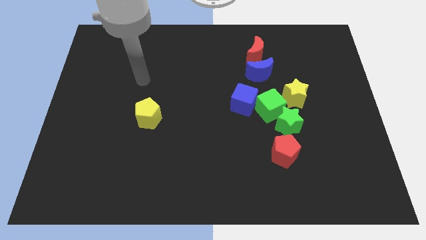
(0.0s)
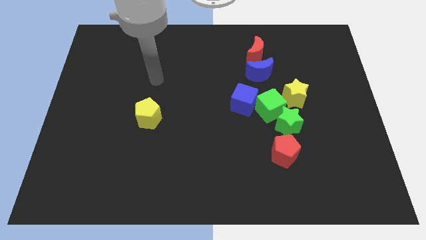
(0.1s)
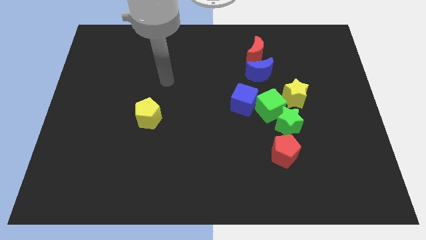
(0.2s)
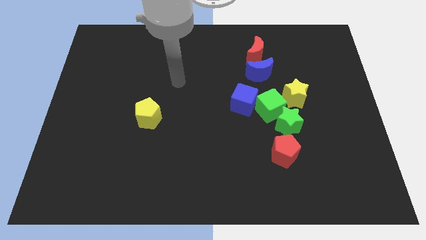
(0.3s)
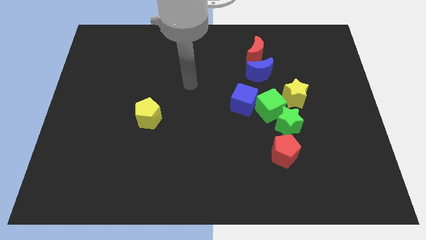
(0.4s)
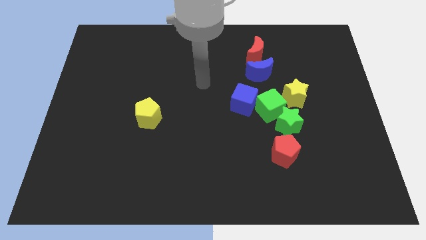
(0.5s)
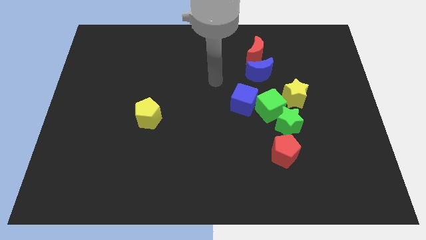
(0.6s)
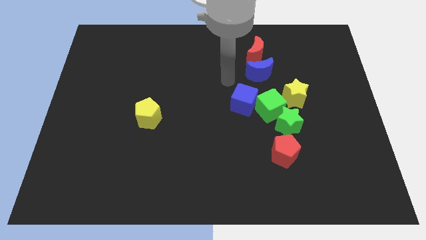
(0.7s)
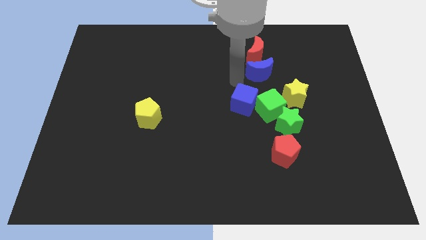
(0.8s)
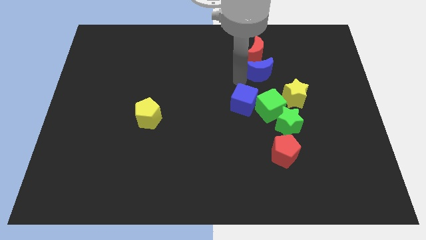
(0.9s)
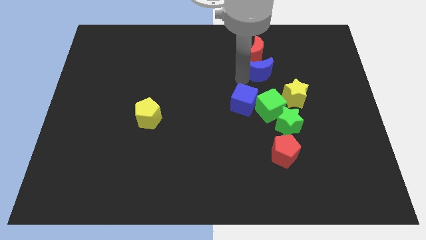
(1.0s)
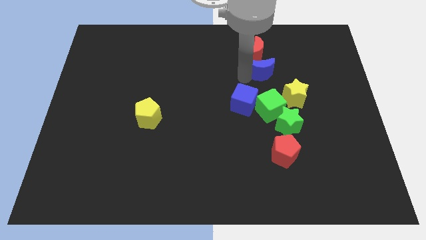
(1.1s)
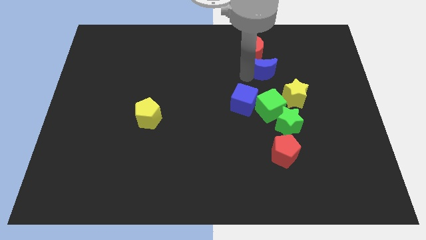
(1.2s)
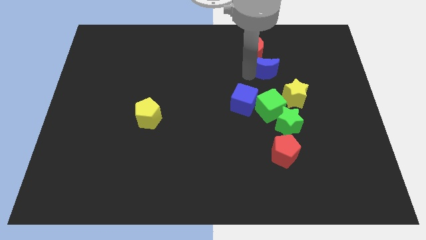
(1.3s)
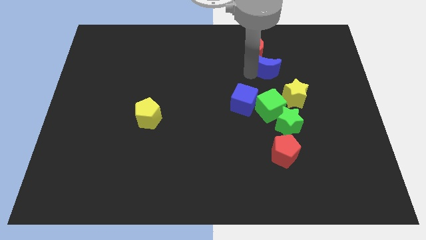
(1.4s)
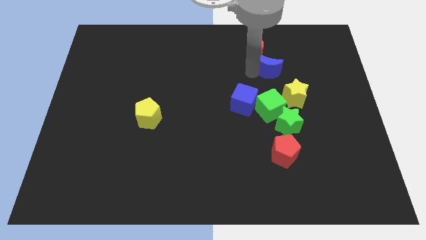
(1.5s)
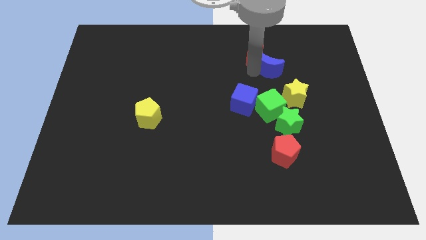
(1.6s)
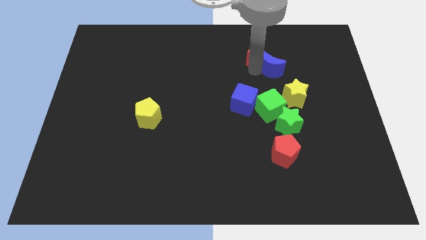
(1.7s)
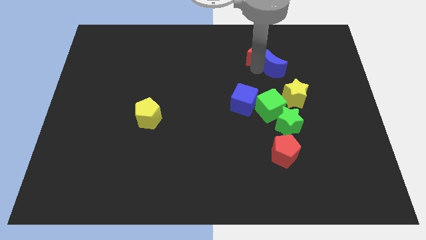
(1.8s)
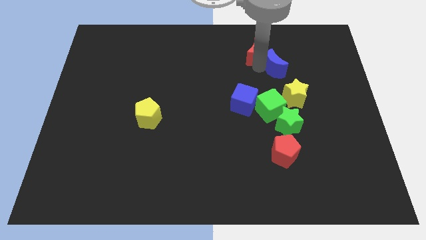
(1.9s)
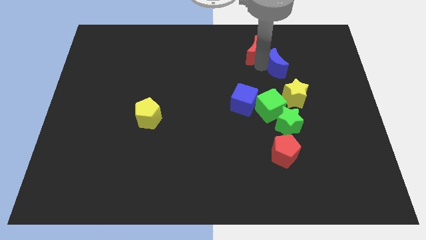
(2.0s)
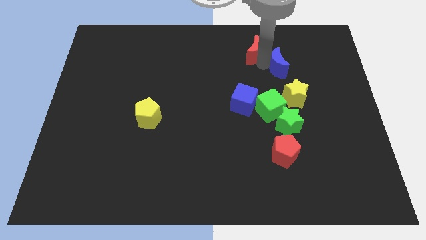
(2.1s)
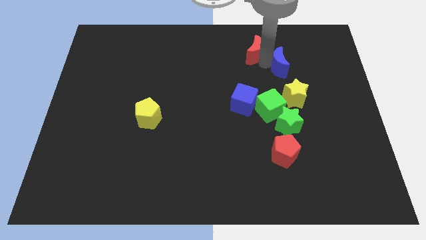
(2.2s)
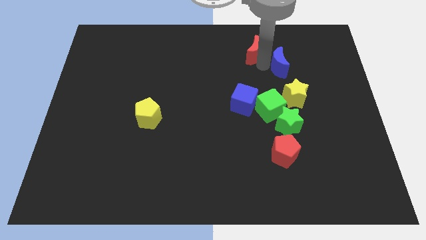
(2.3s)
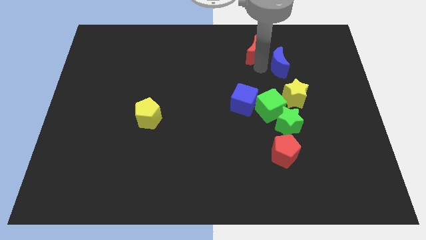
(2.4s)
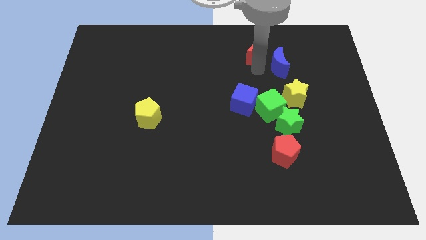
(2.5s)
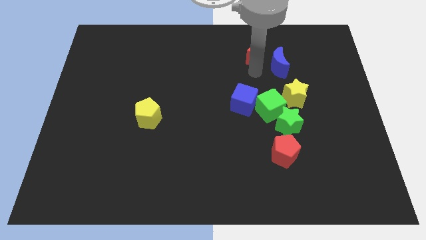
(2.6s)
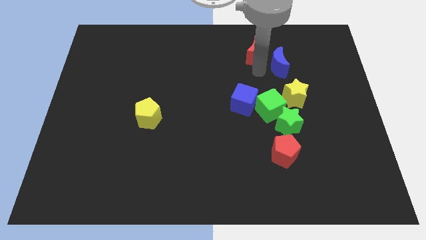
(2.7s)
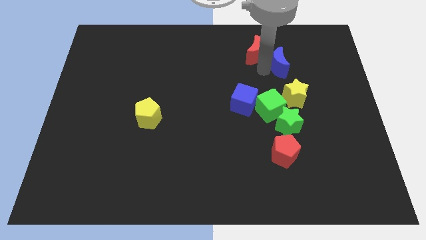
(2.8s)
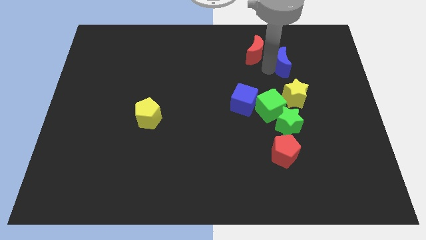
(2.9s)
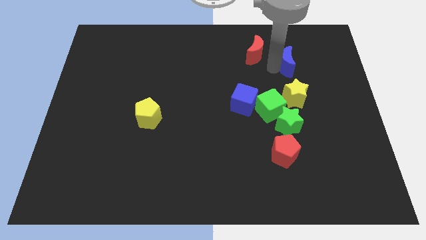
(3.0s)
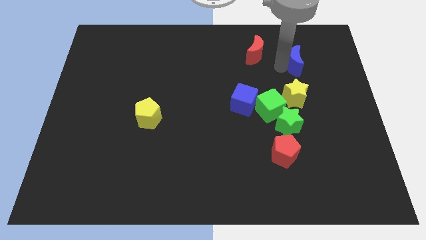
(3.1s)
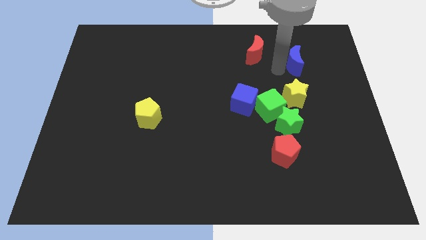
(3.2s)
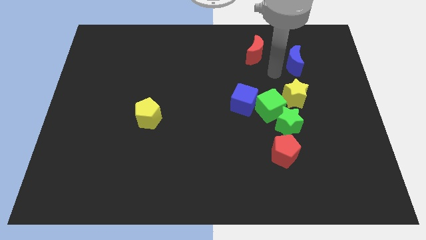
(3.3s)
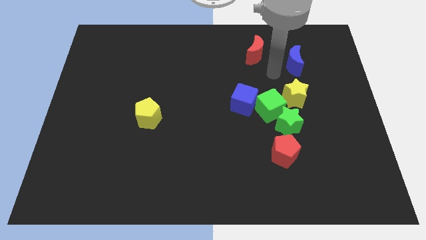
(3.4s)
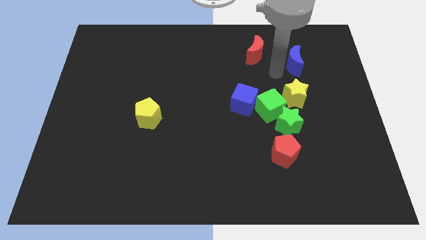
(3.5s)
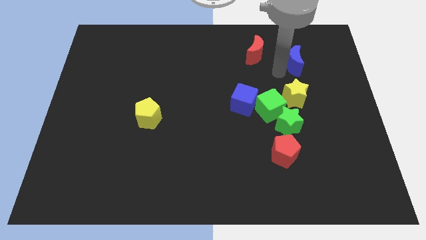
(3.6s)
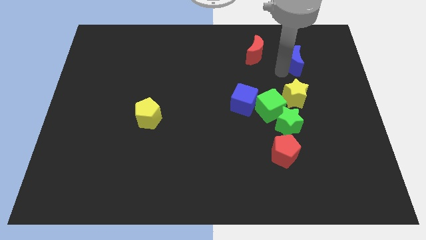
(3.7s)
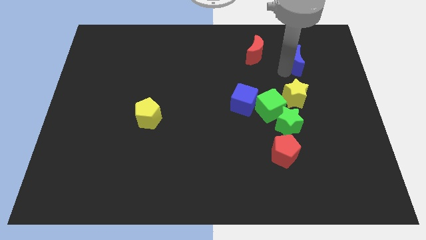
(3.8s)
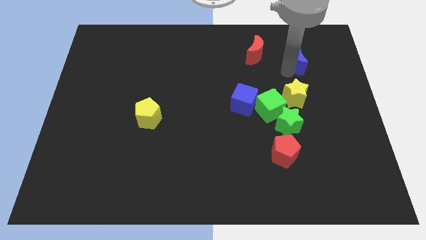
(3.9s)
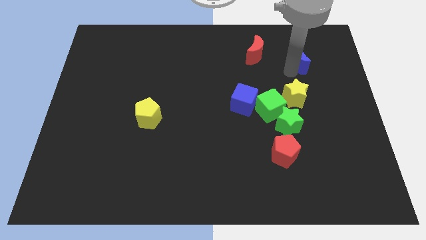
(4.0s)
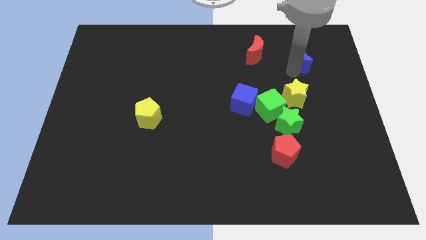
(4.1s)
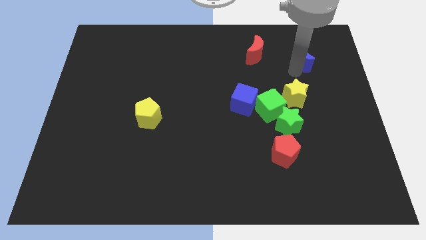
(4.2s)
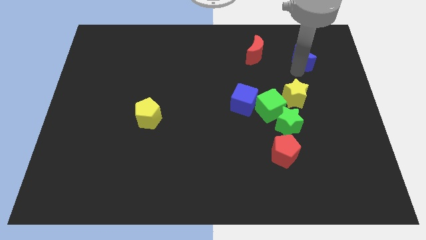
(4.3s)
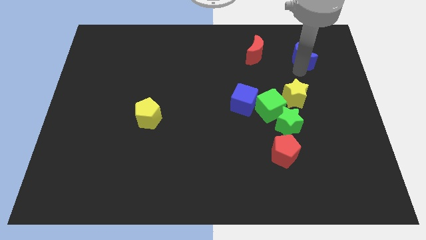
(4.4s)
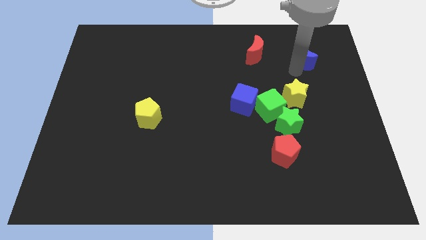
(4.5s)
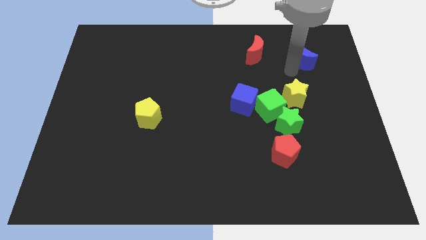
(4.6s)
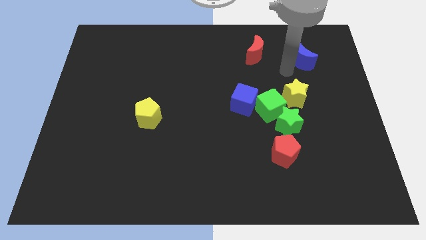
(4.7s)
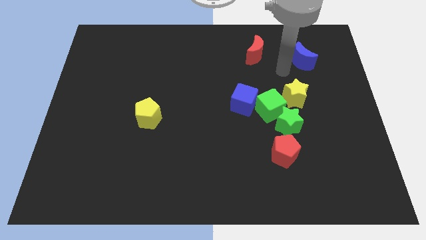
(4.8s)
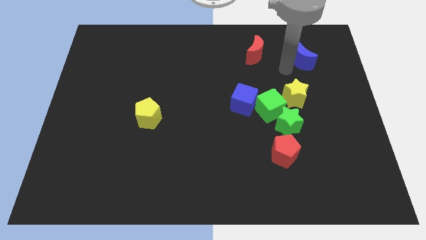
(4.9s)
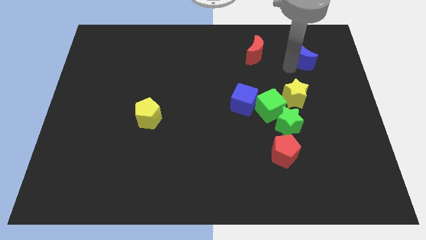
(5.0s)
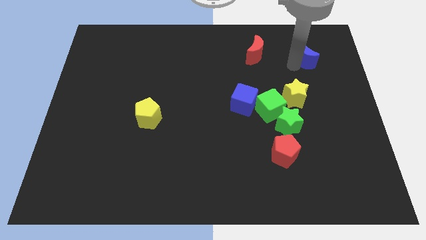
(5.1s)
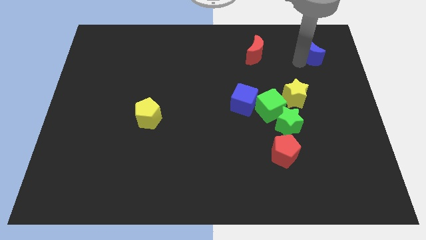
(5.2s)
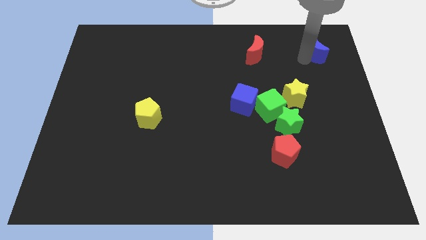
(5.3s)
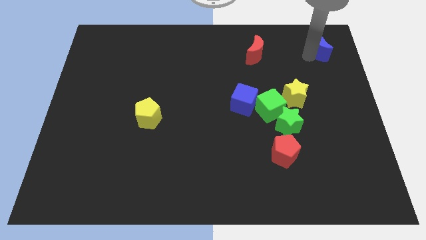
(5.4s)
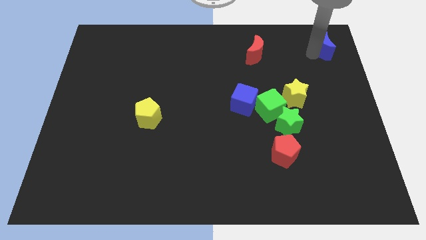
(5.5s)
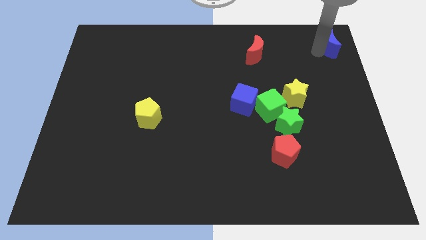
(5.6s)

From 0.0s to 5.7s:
put the blue moon to the top right

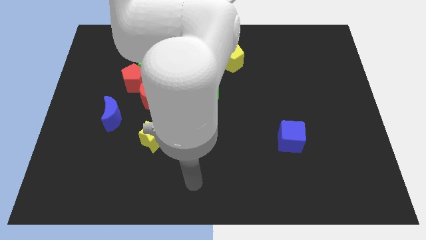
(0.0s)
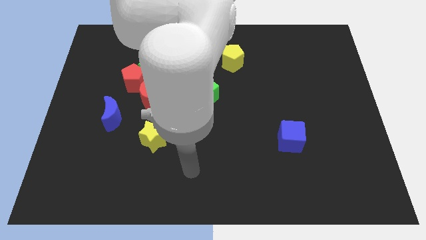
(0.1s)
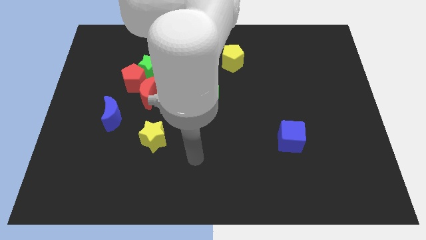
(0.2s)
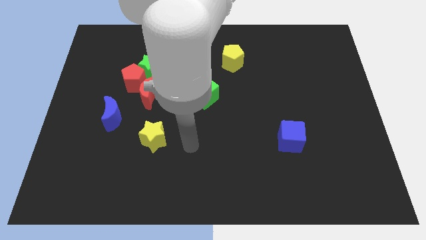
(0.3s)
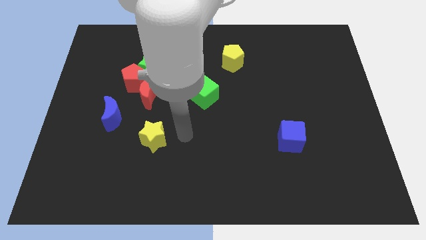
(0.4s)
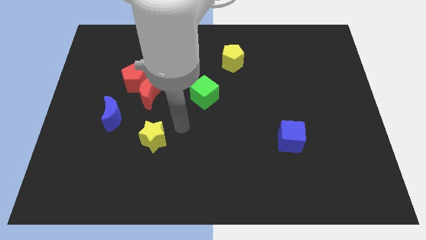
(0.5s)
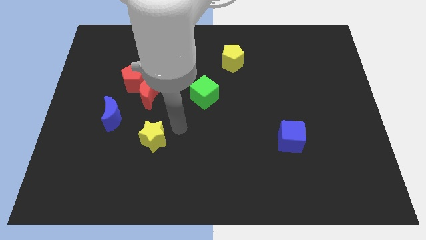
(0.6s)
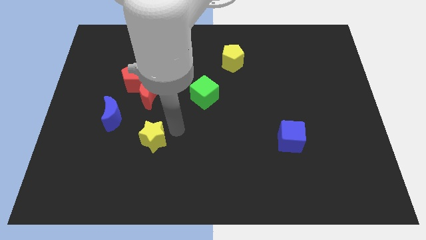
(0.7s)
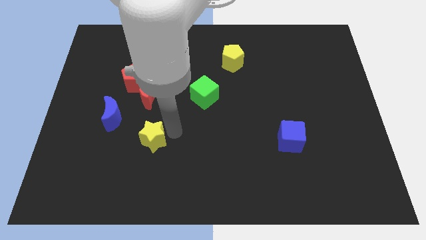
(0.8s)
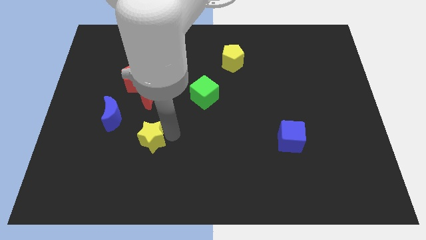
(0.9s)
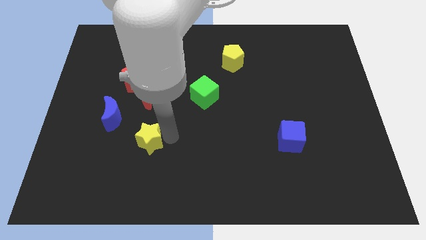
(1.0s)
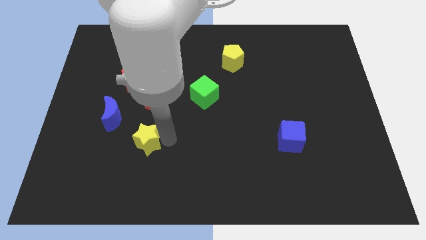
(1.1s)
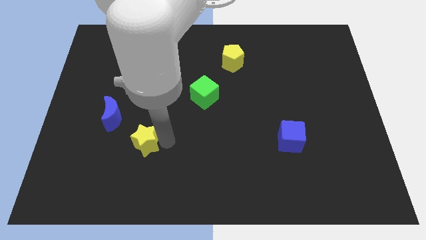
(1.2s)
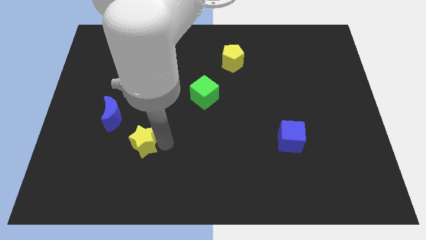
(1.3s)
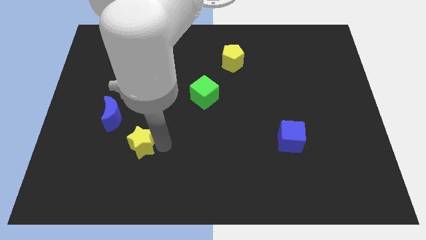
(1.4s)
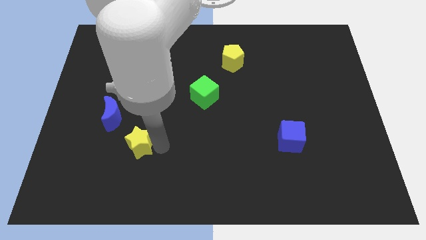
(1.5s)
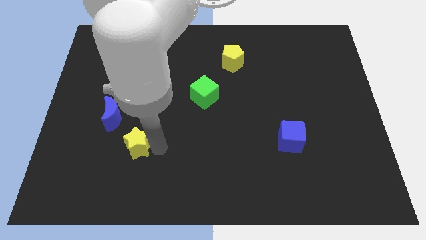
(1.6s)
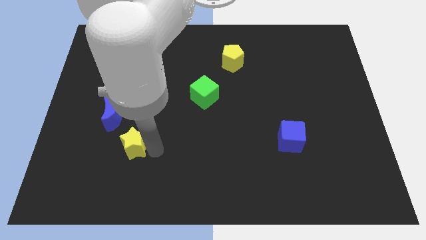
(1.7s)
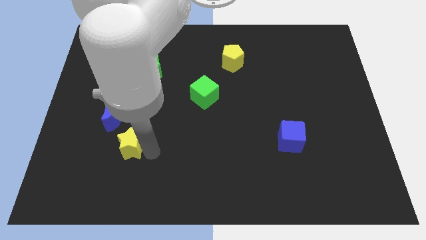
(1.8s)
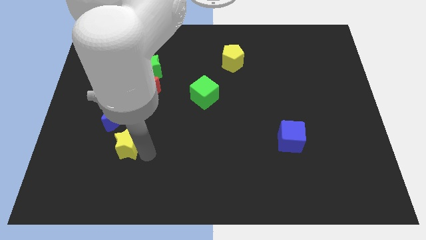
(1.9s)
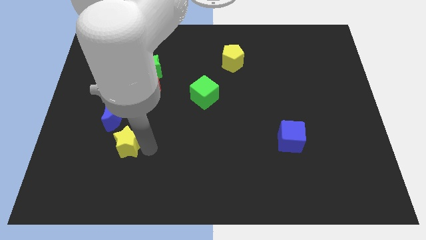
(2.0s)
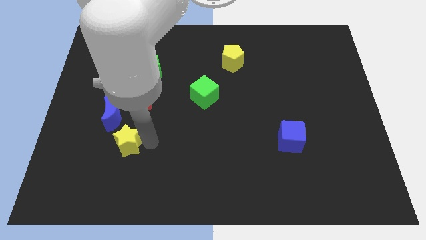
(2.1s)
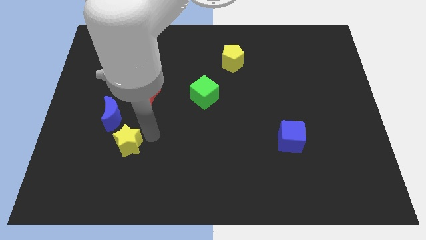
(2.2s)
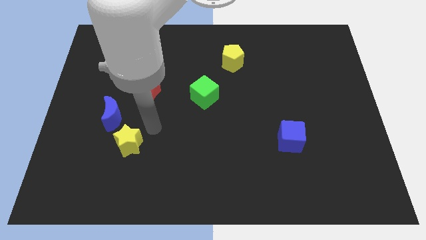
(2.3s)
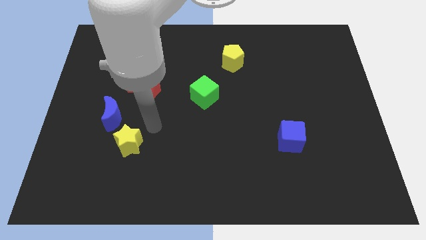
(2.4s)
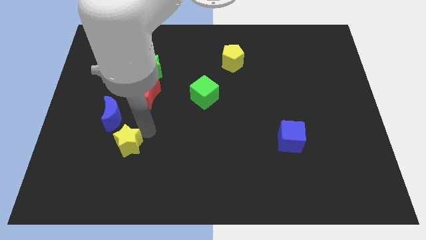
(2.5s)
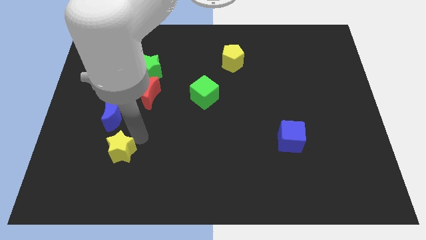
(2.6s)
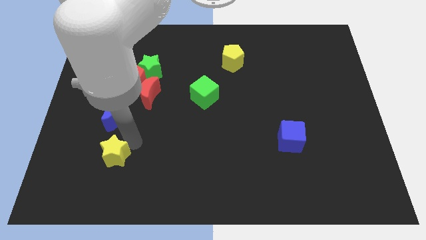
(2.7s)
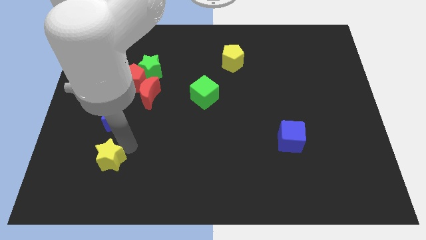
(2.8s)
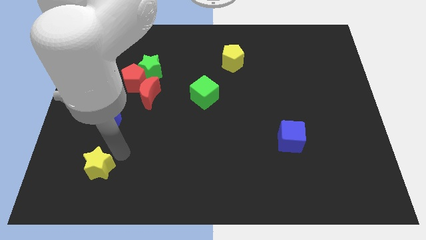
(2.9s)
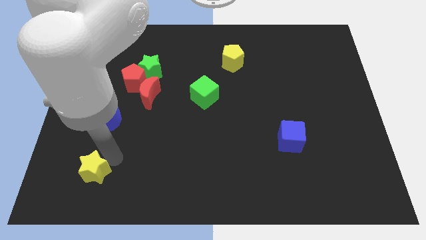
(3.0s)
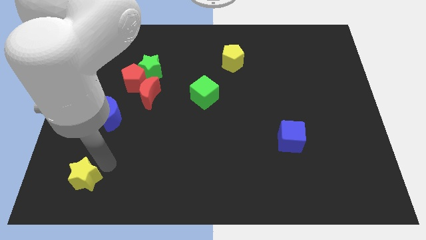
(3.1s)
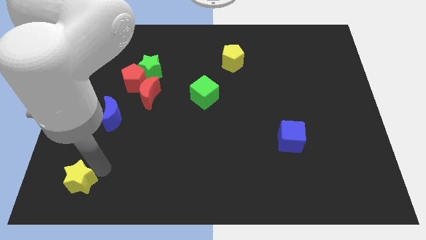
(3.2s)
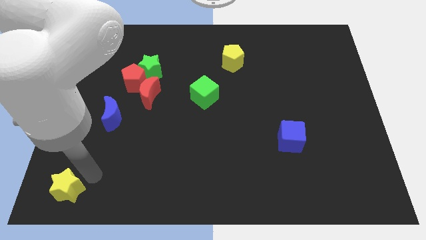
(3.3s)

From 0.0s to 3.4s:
slide the yellow star to the bottom left
